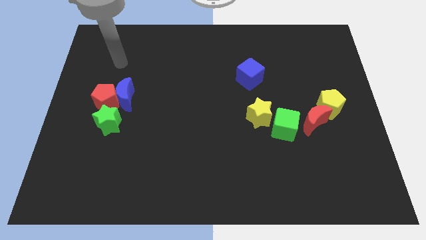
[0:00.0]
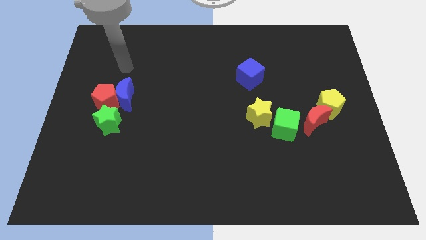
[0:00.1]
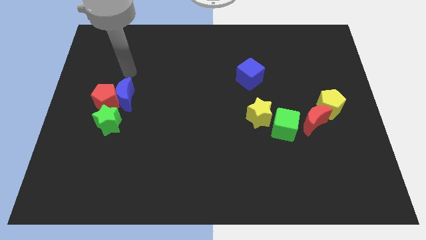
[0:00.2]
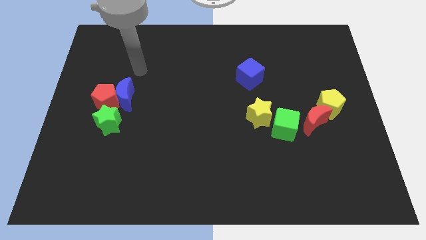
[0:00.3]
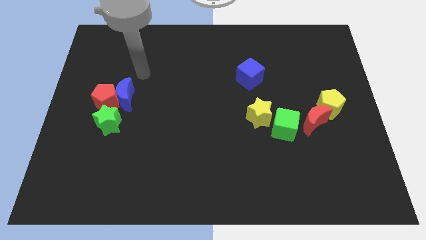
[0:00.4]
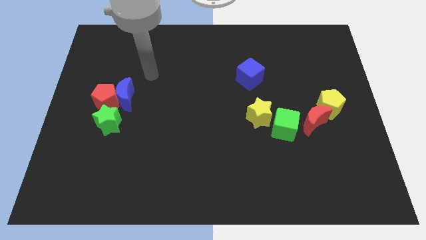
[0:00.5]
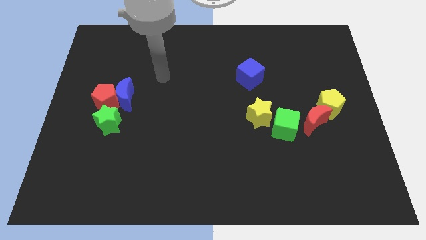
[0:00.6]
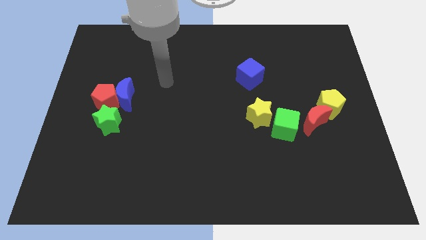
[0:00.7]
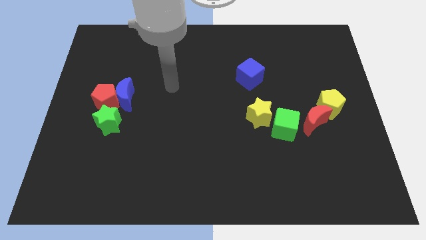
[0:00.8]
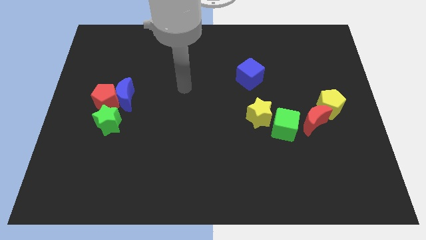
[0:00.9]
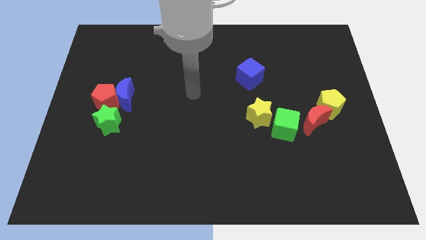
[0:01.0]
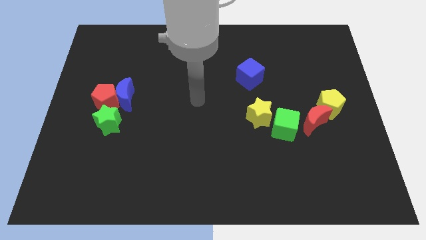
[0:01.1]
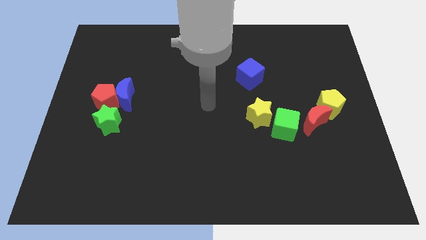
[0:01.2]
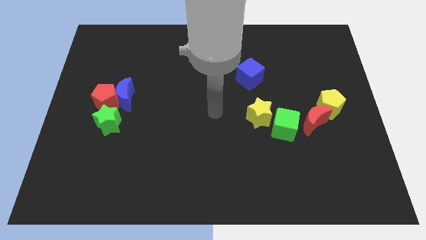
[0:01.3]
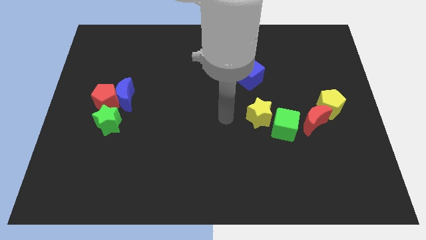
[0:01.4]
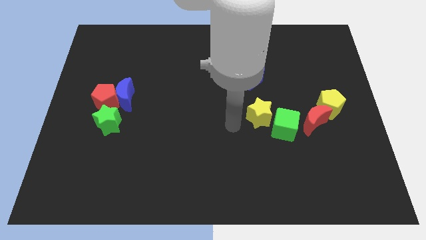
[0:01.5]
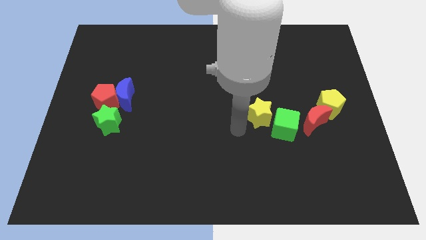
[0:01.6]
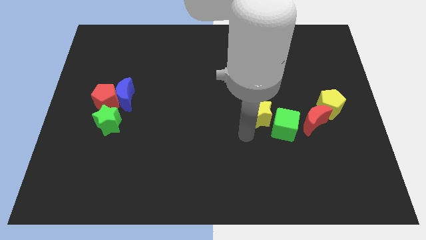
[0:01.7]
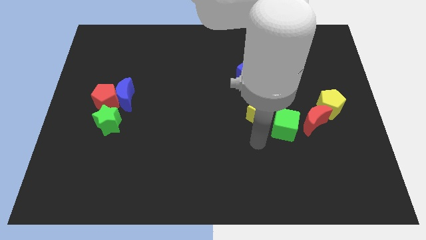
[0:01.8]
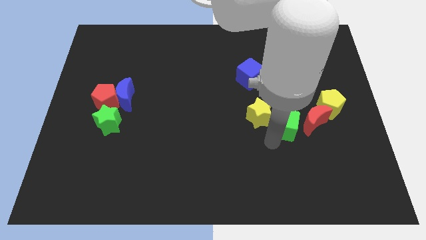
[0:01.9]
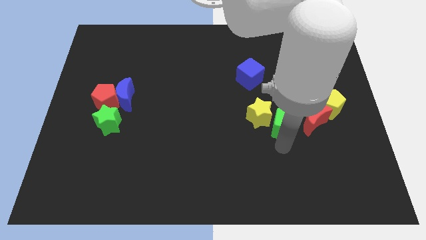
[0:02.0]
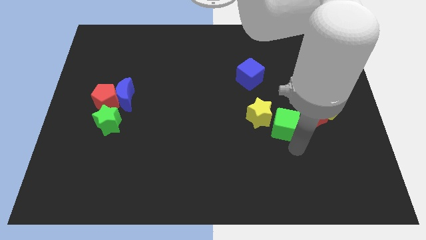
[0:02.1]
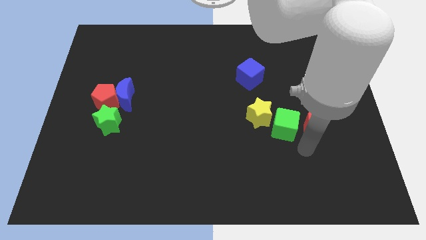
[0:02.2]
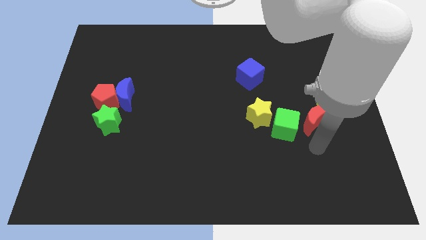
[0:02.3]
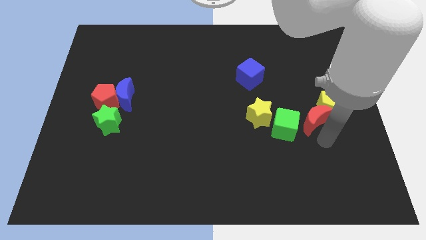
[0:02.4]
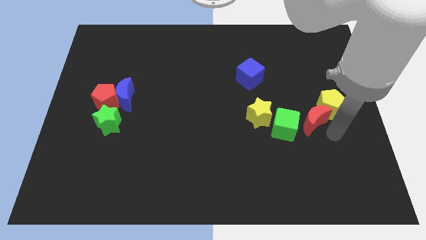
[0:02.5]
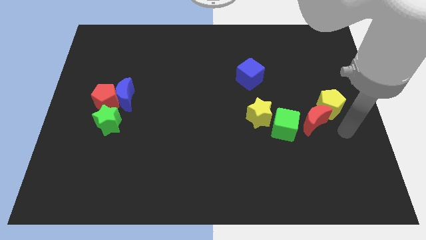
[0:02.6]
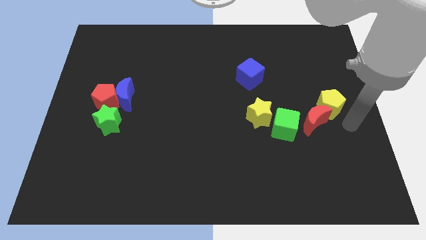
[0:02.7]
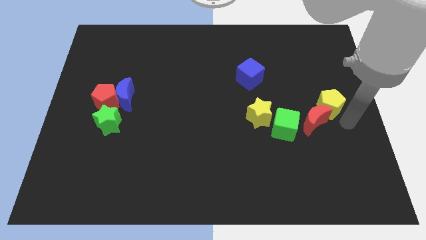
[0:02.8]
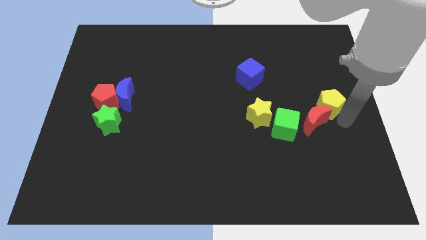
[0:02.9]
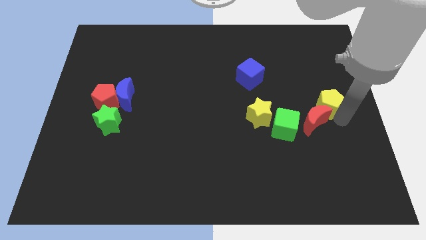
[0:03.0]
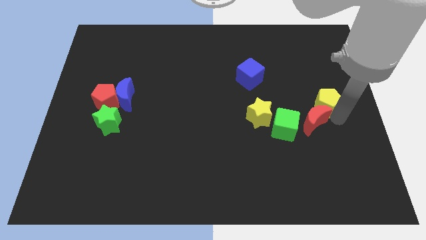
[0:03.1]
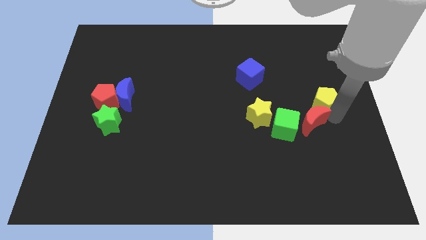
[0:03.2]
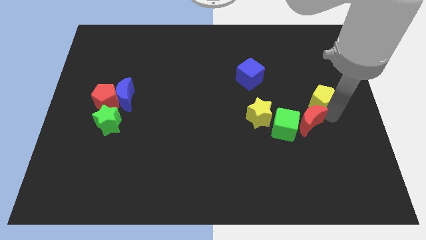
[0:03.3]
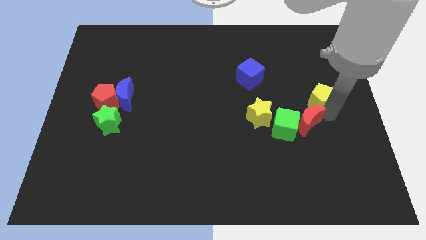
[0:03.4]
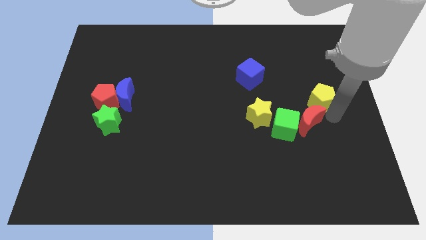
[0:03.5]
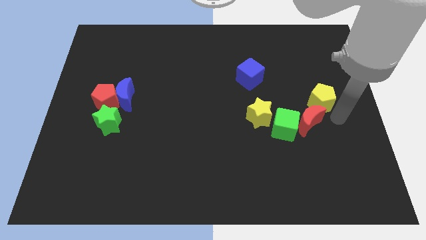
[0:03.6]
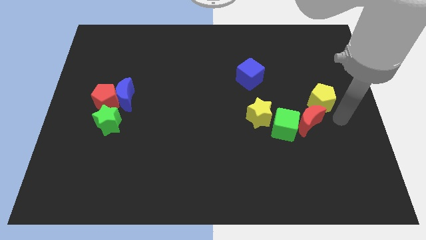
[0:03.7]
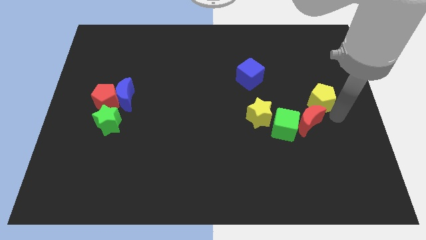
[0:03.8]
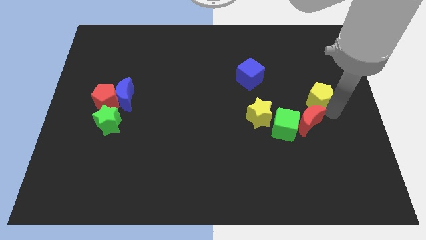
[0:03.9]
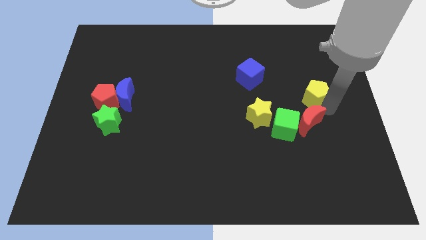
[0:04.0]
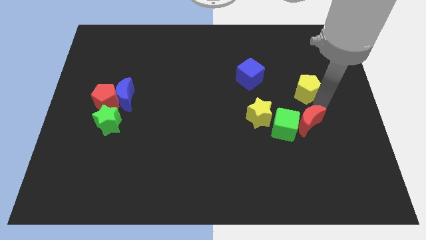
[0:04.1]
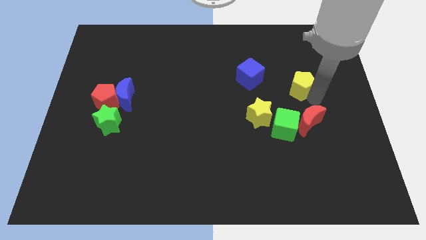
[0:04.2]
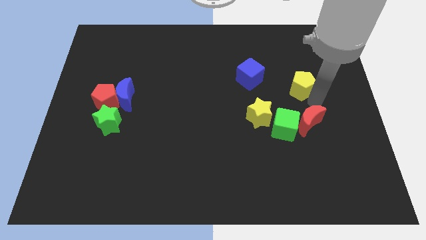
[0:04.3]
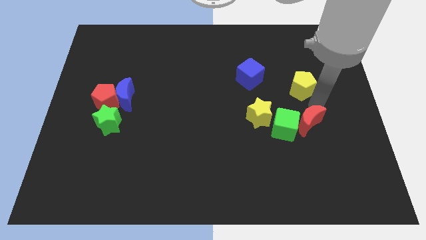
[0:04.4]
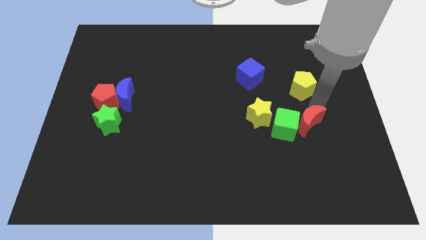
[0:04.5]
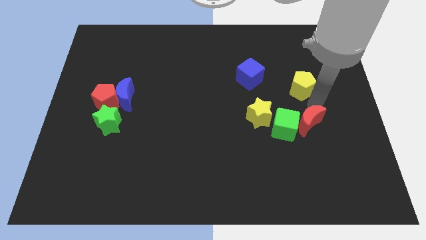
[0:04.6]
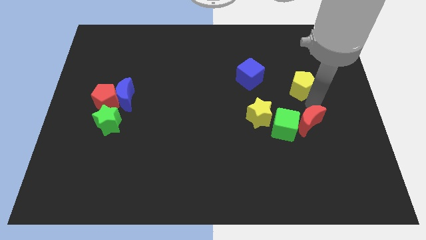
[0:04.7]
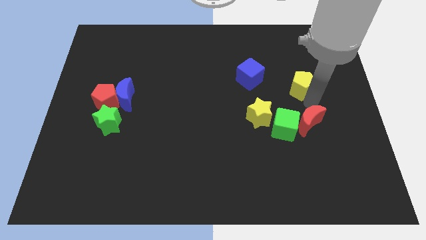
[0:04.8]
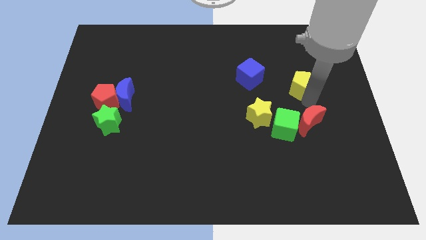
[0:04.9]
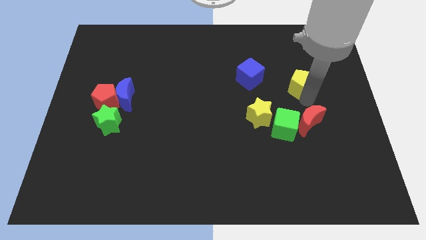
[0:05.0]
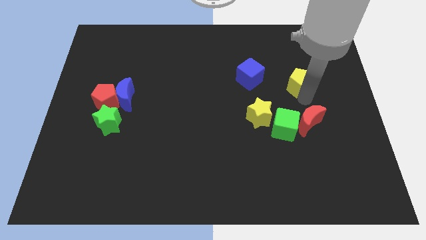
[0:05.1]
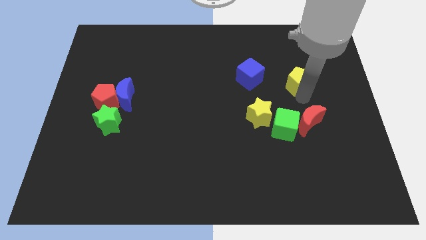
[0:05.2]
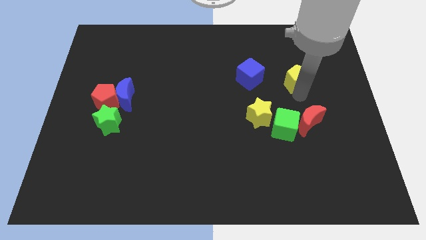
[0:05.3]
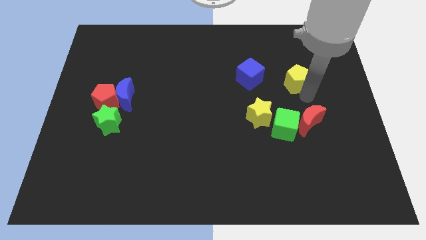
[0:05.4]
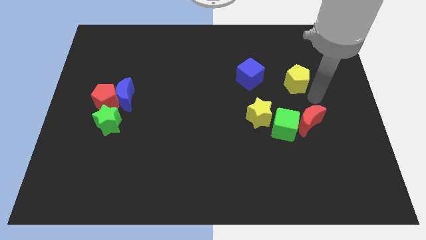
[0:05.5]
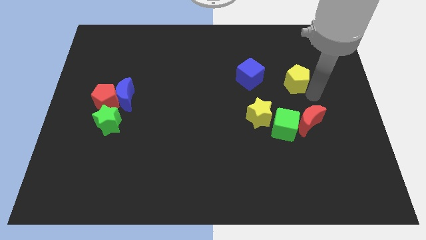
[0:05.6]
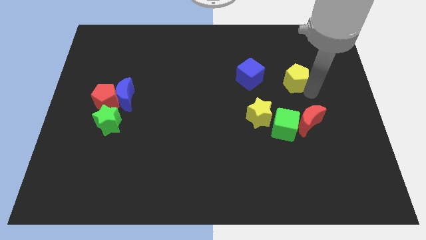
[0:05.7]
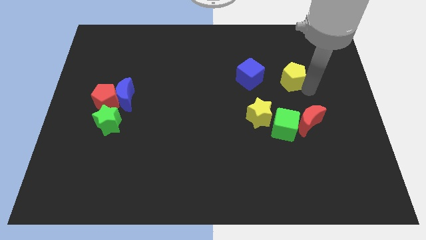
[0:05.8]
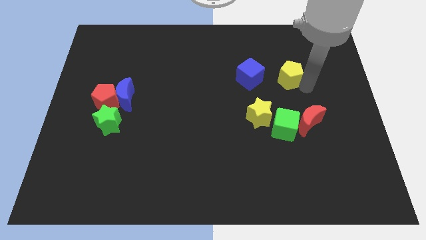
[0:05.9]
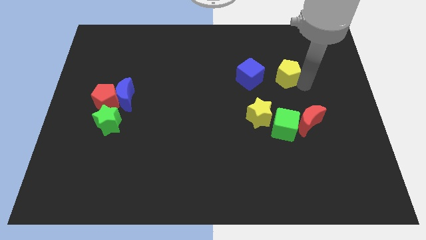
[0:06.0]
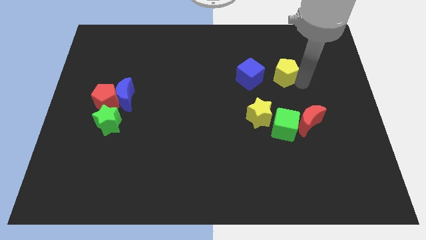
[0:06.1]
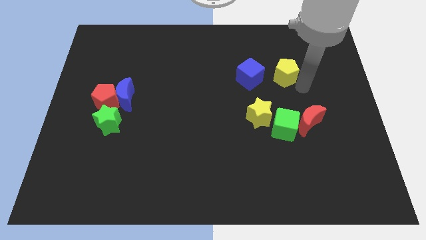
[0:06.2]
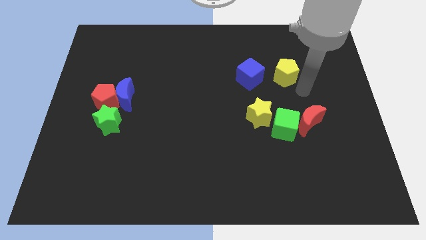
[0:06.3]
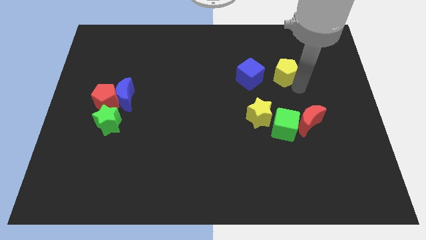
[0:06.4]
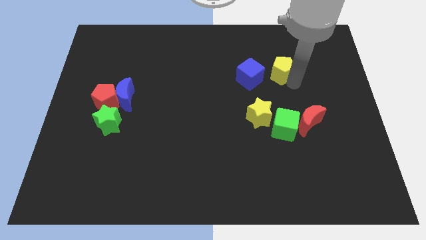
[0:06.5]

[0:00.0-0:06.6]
slide the yellow pentagon diagonally up and to the right of the blue cube

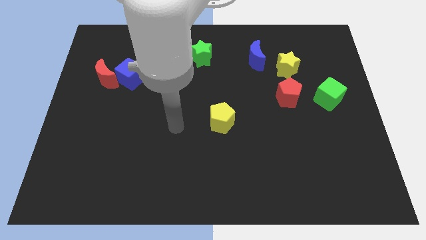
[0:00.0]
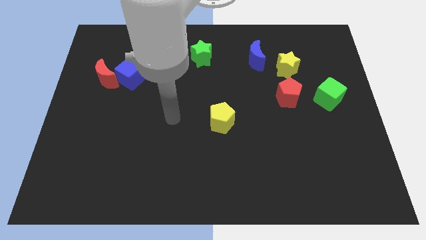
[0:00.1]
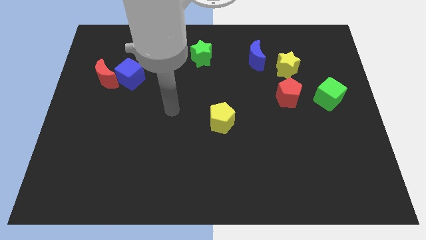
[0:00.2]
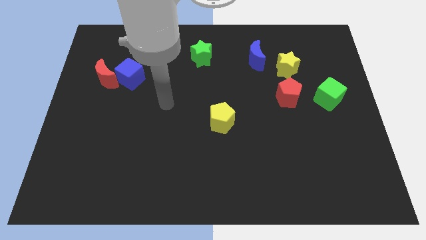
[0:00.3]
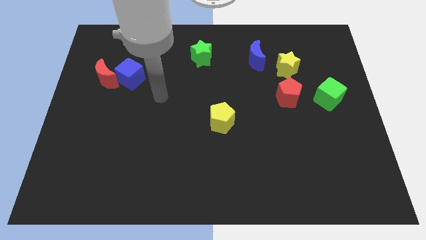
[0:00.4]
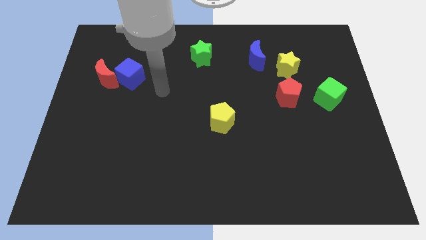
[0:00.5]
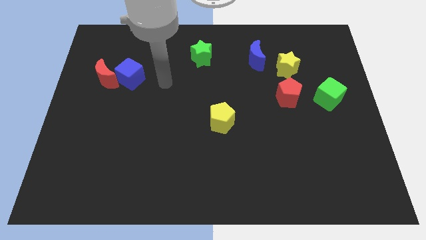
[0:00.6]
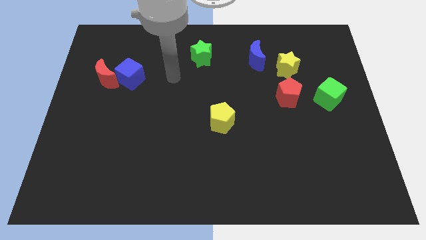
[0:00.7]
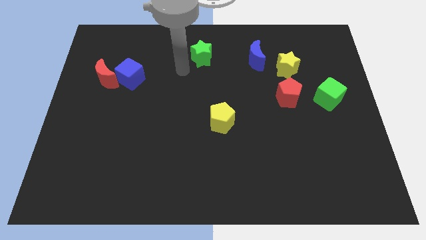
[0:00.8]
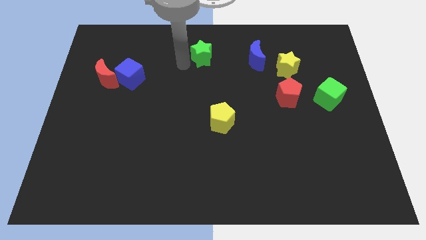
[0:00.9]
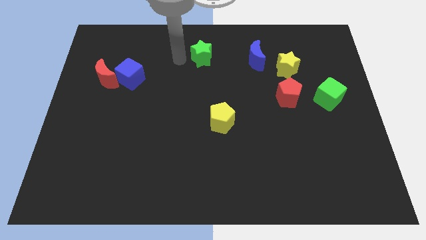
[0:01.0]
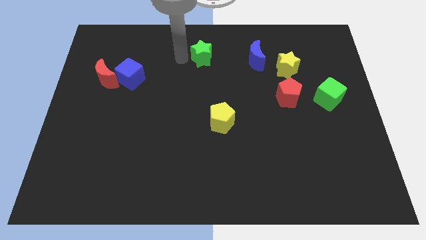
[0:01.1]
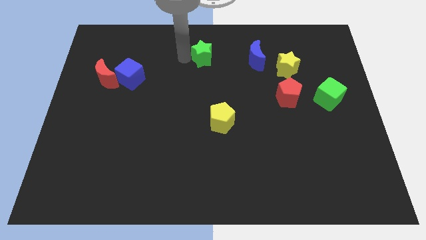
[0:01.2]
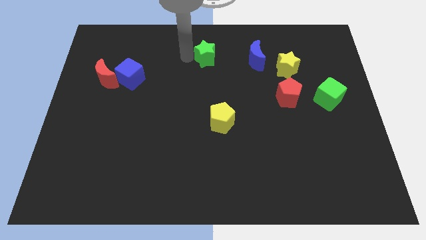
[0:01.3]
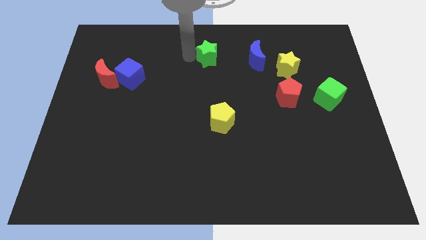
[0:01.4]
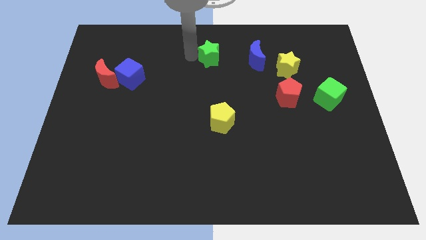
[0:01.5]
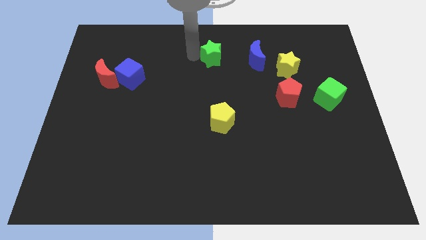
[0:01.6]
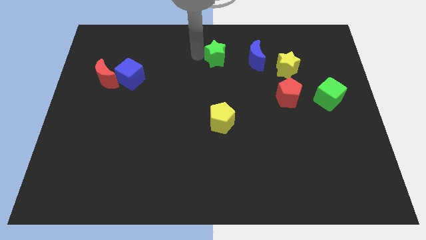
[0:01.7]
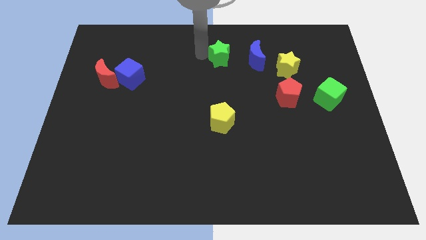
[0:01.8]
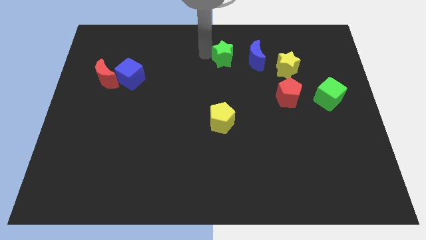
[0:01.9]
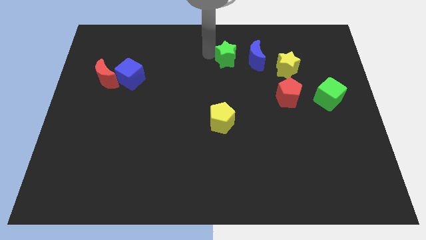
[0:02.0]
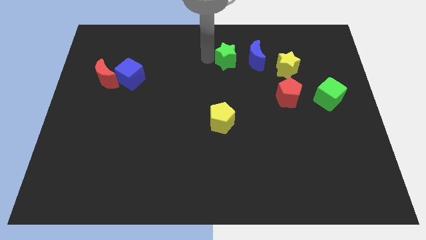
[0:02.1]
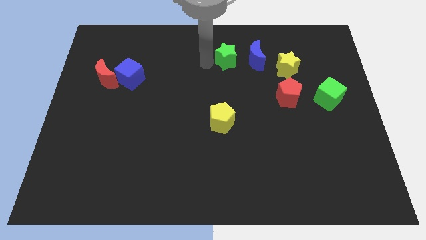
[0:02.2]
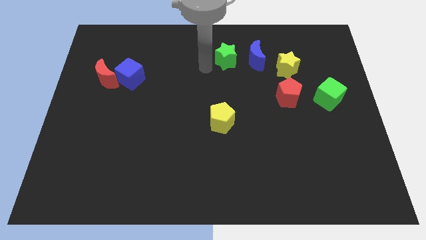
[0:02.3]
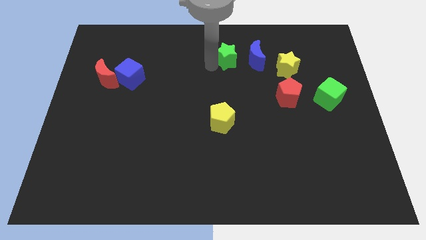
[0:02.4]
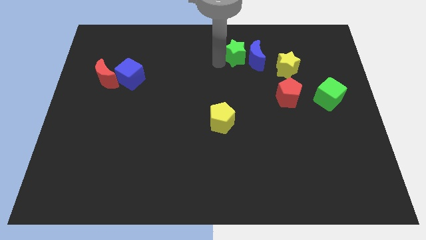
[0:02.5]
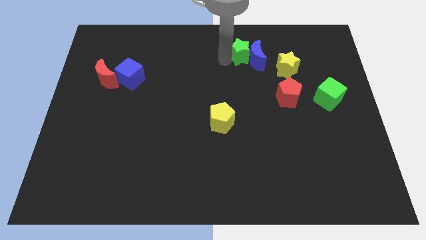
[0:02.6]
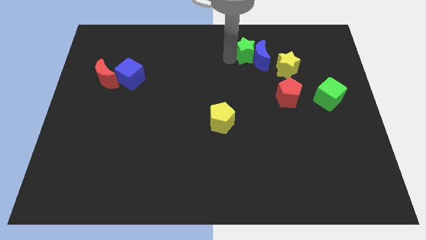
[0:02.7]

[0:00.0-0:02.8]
move the green star to the top left of the yellow star
